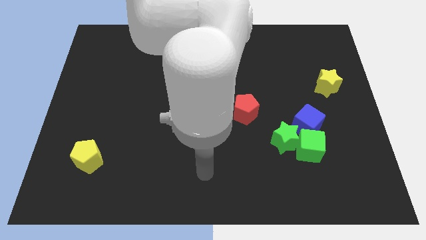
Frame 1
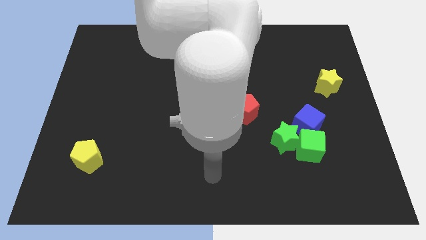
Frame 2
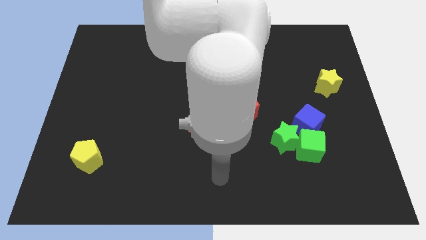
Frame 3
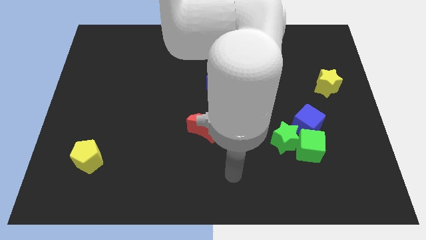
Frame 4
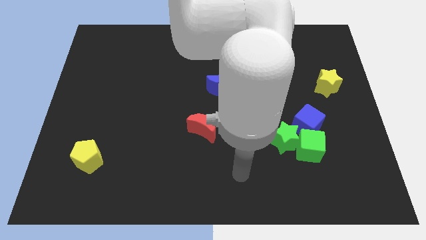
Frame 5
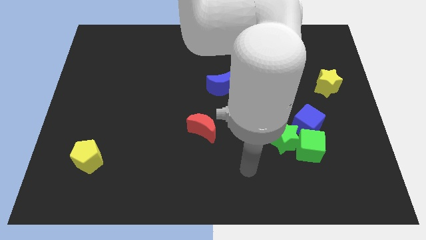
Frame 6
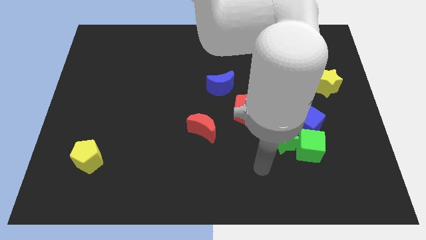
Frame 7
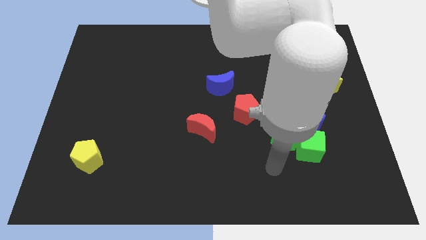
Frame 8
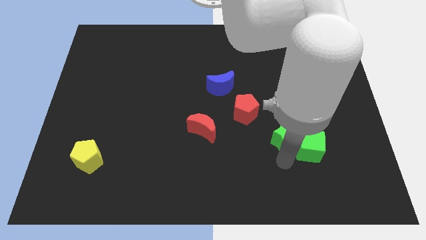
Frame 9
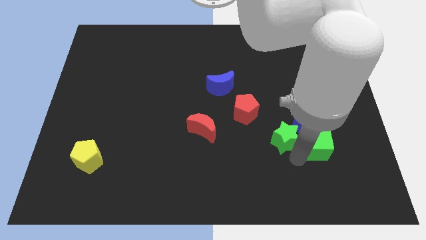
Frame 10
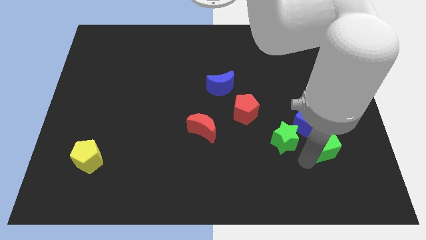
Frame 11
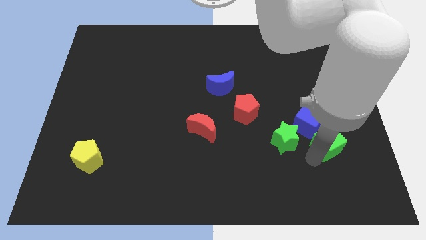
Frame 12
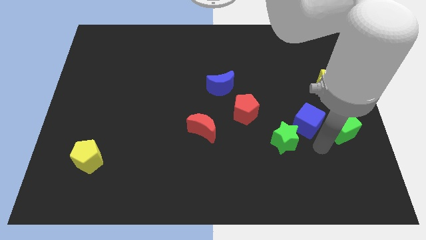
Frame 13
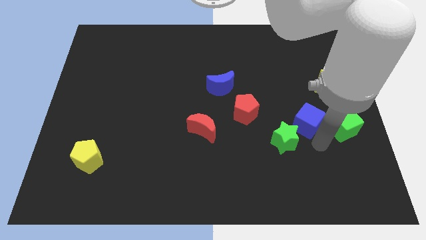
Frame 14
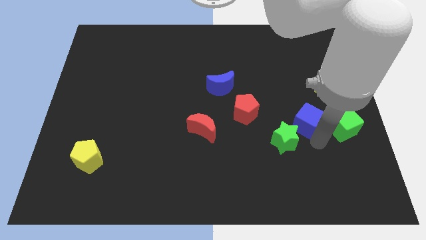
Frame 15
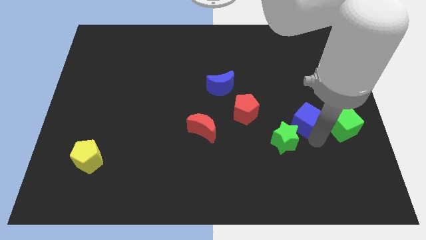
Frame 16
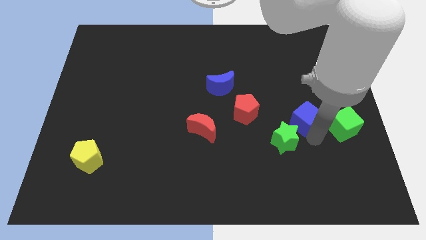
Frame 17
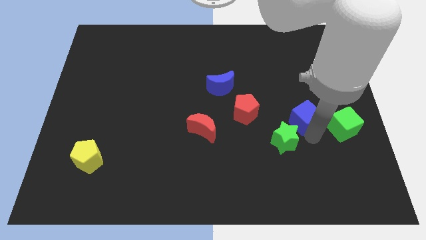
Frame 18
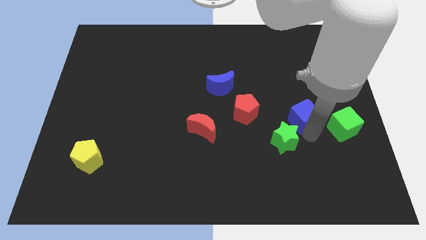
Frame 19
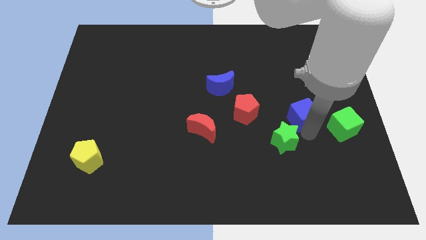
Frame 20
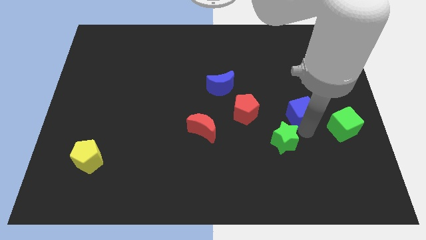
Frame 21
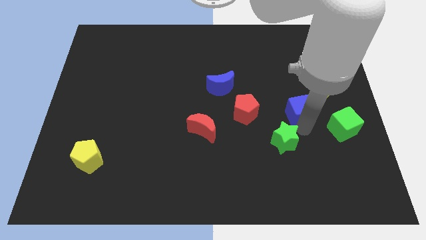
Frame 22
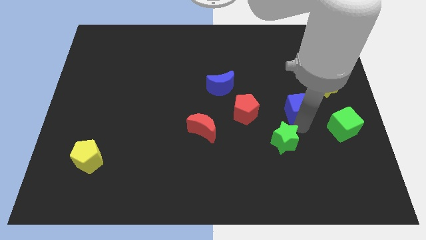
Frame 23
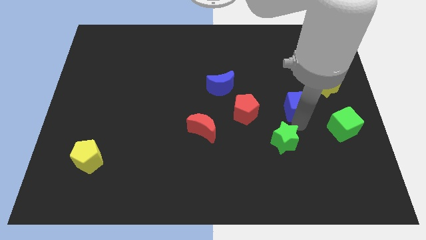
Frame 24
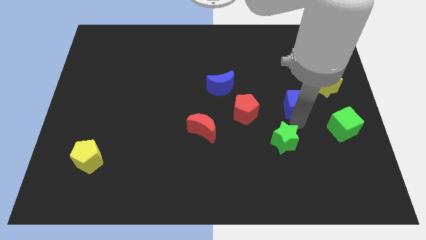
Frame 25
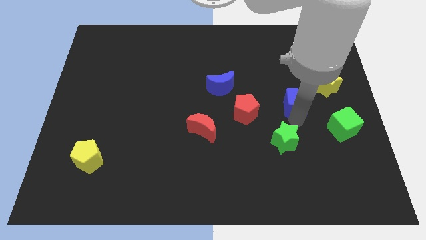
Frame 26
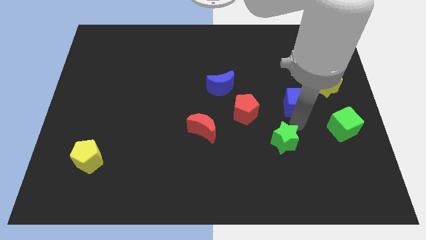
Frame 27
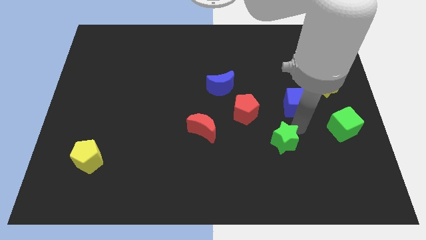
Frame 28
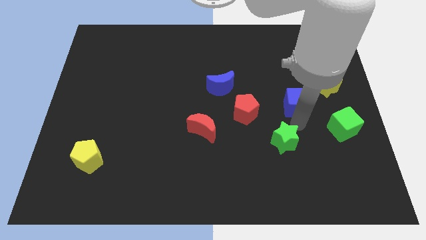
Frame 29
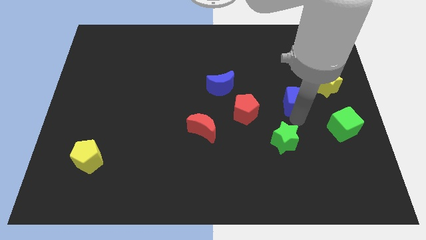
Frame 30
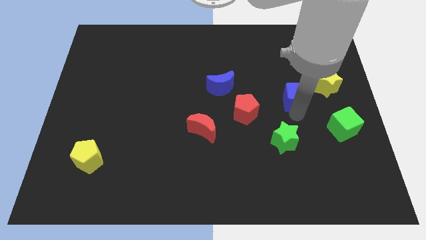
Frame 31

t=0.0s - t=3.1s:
push the blue cube upwards a bit

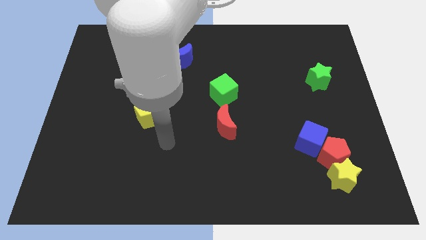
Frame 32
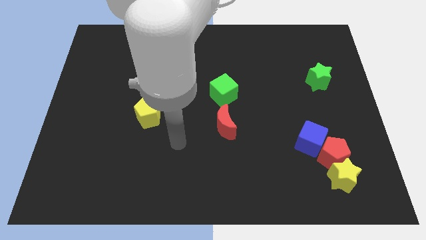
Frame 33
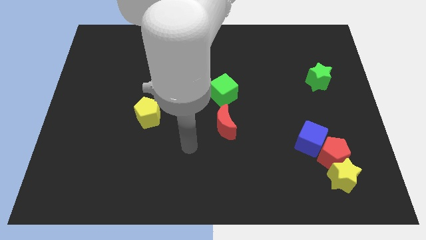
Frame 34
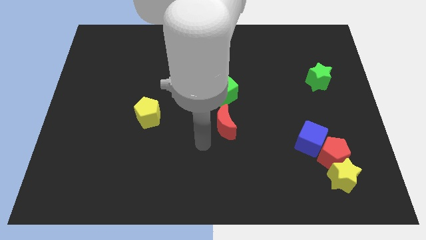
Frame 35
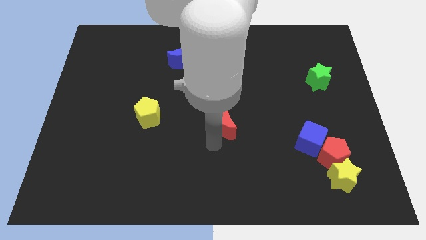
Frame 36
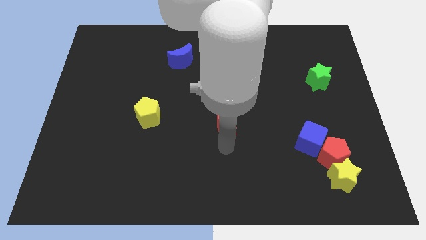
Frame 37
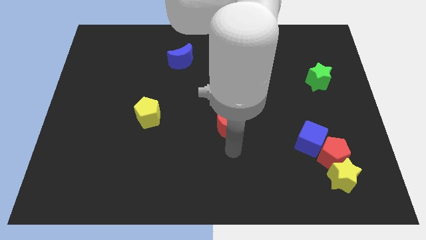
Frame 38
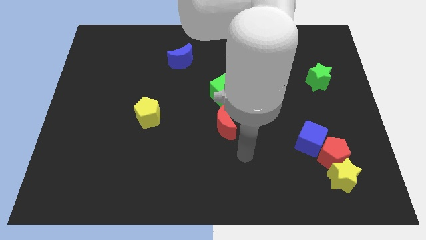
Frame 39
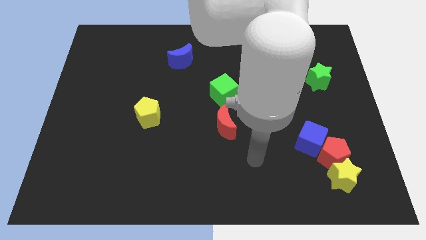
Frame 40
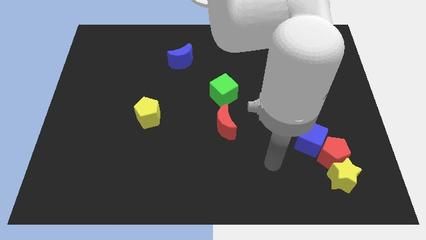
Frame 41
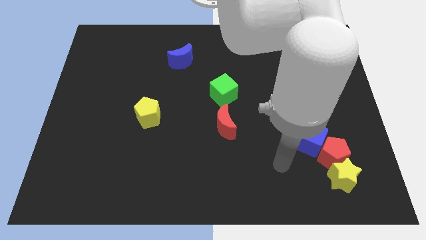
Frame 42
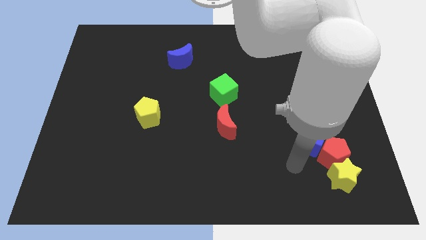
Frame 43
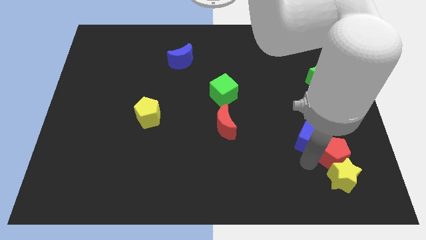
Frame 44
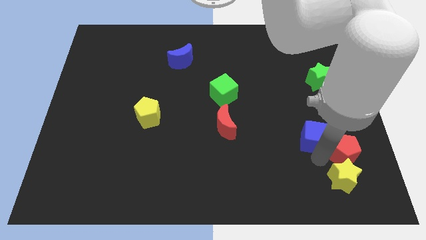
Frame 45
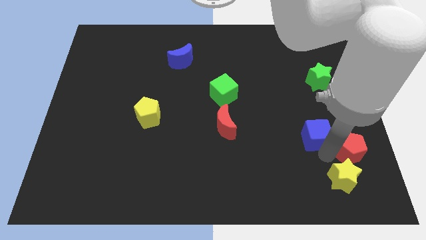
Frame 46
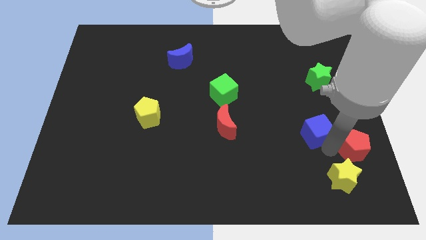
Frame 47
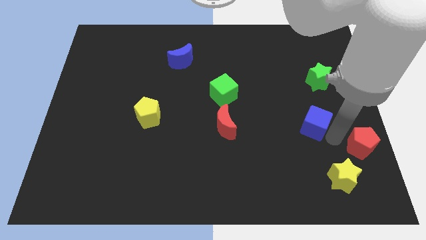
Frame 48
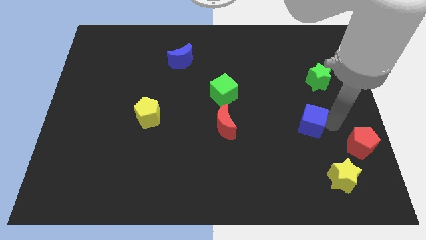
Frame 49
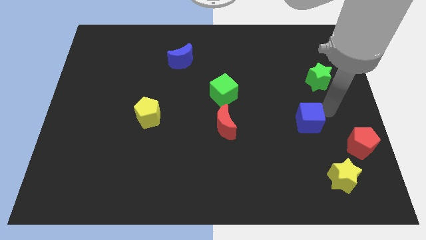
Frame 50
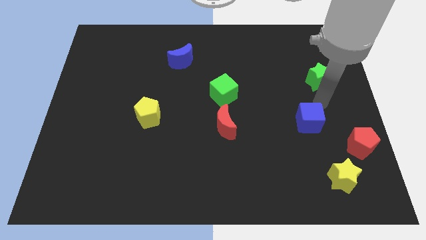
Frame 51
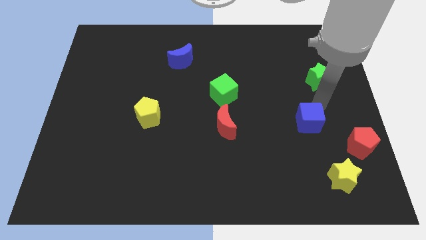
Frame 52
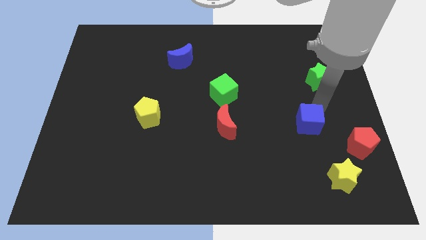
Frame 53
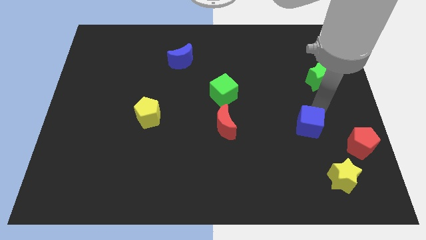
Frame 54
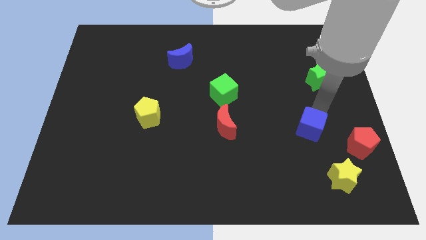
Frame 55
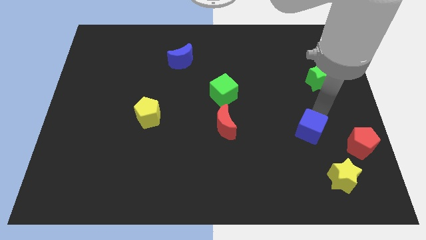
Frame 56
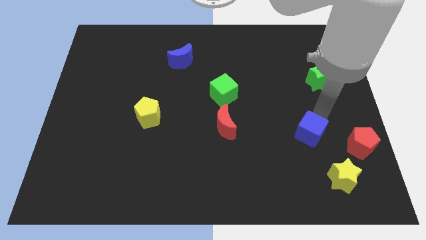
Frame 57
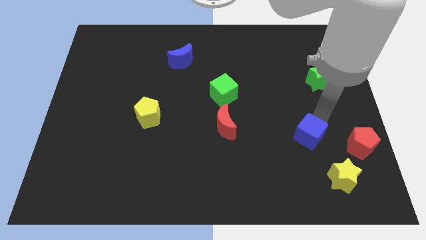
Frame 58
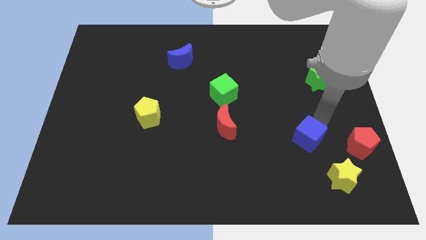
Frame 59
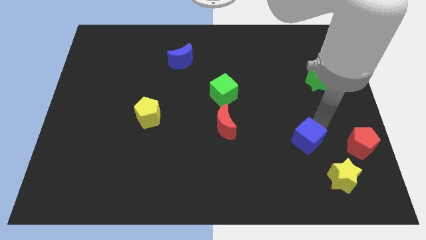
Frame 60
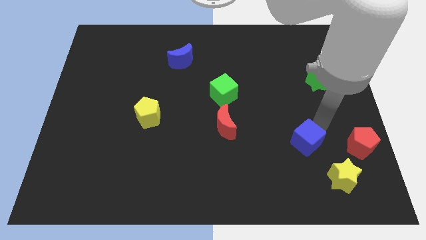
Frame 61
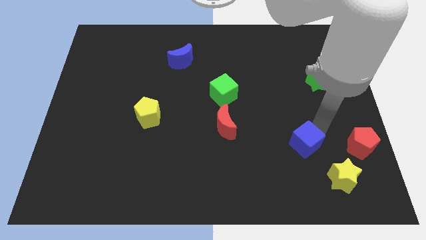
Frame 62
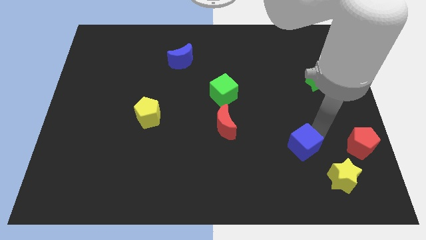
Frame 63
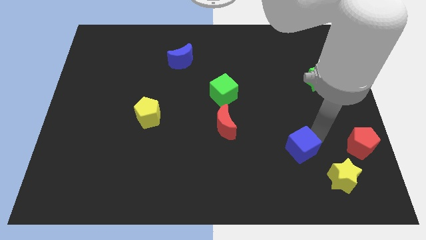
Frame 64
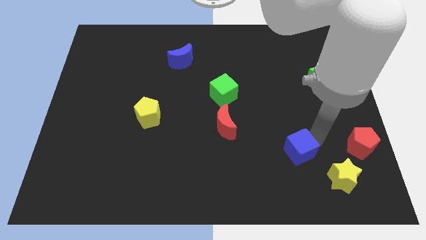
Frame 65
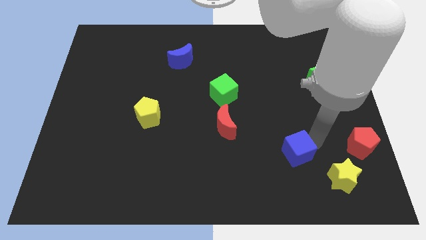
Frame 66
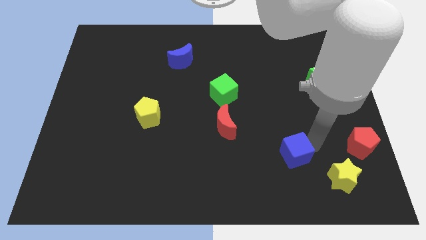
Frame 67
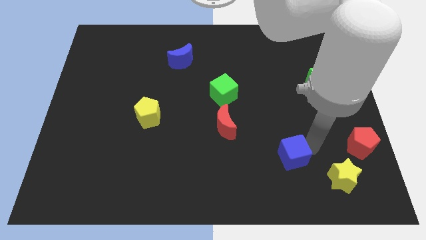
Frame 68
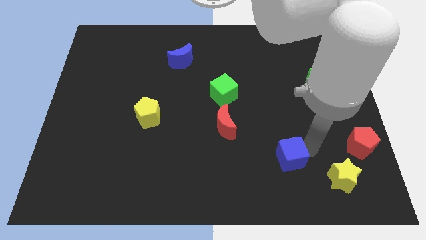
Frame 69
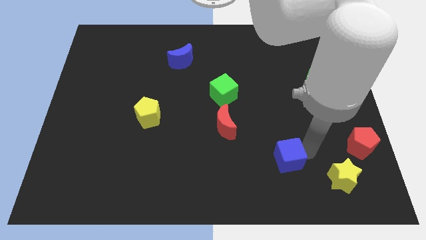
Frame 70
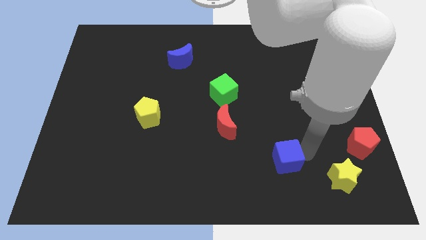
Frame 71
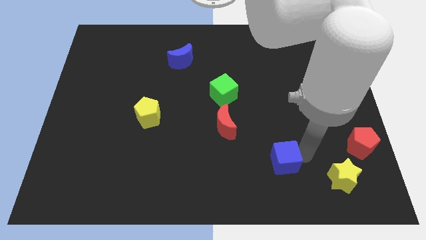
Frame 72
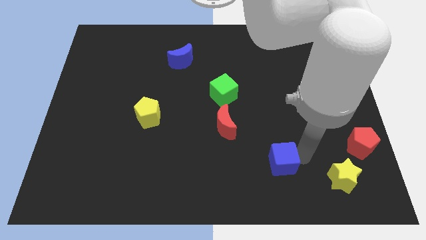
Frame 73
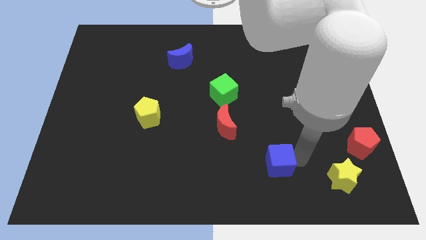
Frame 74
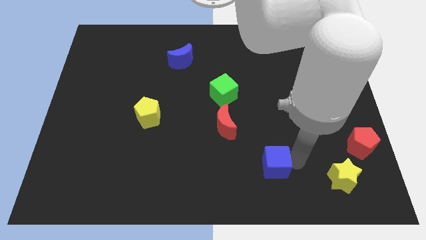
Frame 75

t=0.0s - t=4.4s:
move the blue cube to the left a little

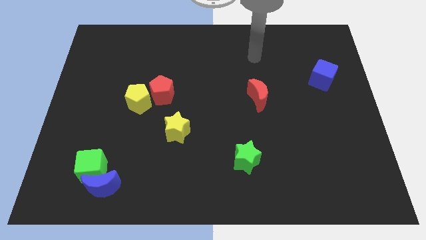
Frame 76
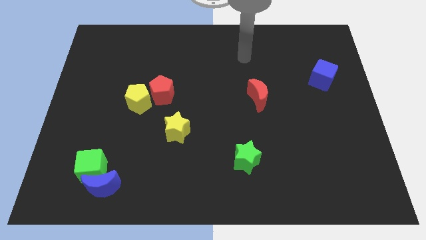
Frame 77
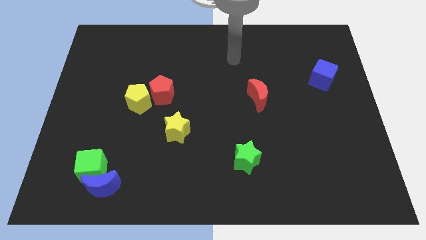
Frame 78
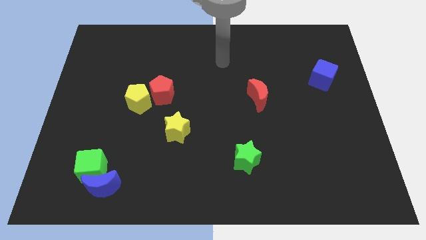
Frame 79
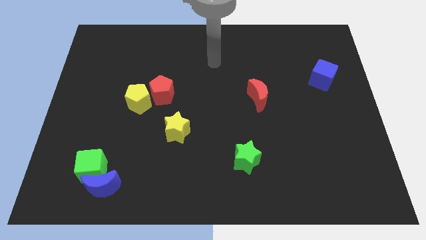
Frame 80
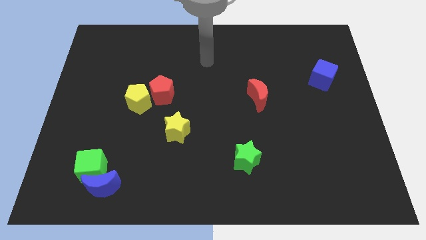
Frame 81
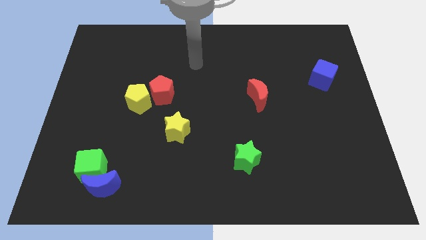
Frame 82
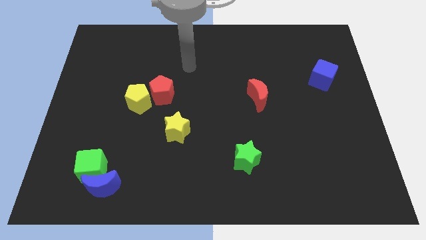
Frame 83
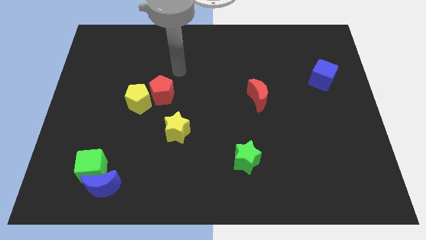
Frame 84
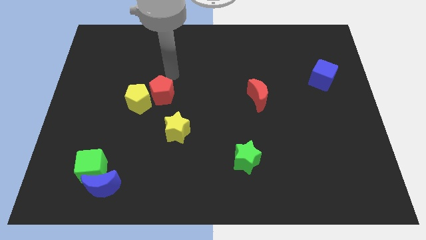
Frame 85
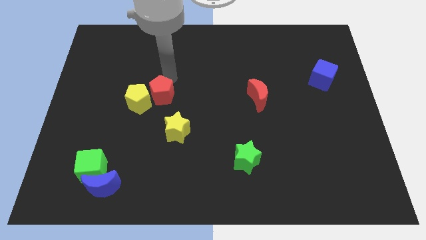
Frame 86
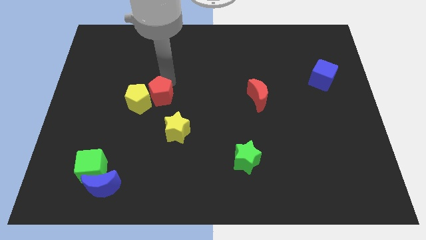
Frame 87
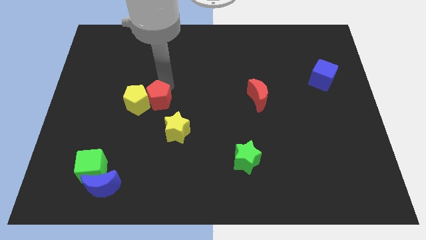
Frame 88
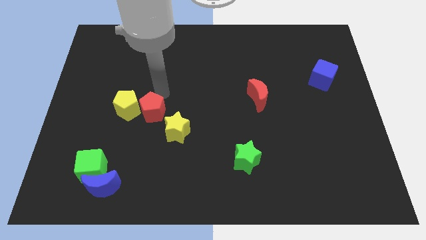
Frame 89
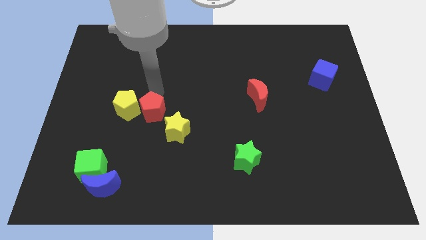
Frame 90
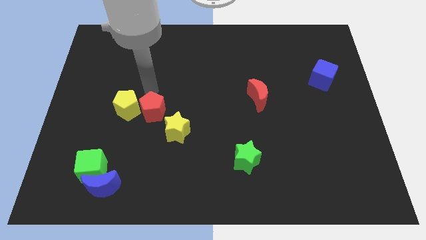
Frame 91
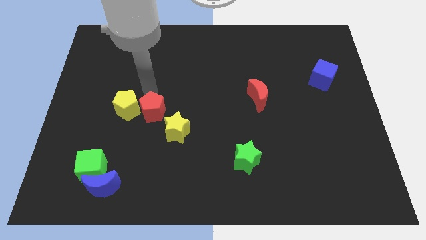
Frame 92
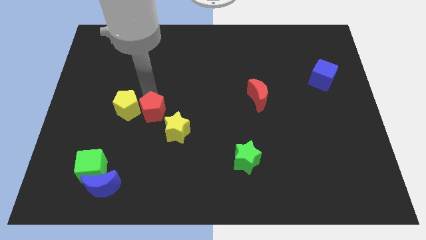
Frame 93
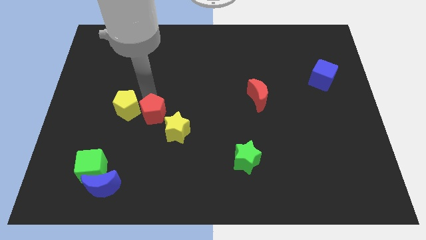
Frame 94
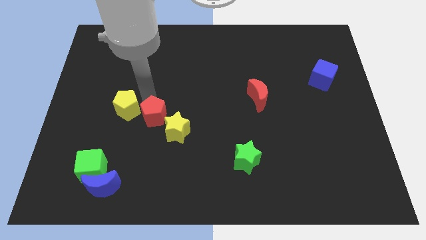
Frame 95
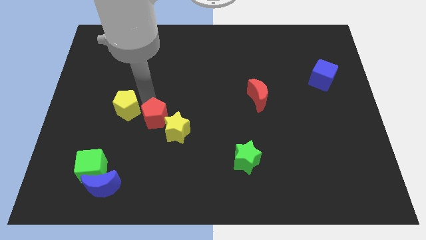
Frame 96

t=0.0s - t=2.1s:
slightly move the red pentagon downwards
